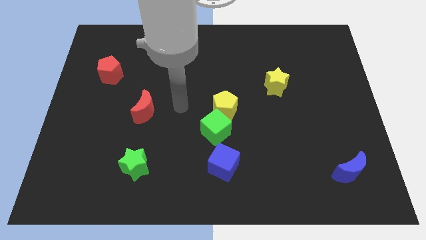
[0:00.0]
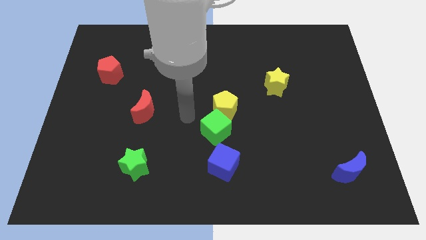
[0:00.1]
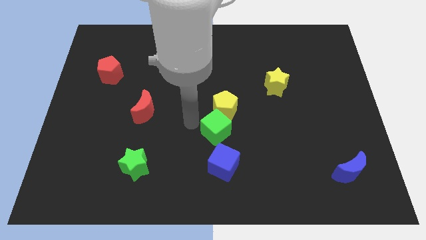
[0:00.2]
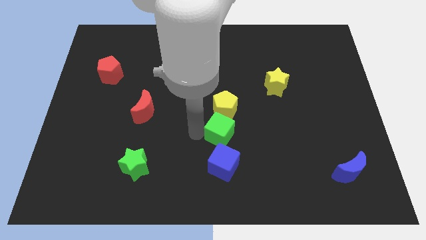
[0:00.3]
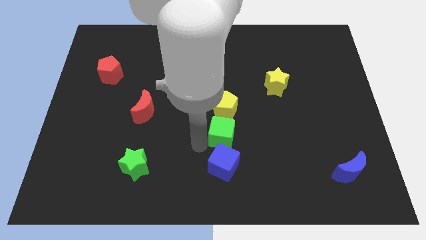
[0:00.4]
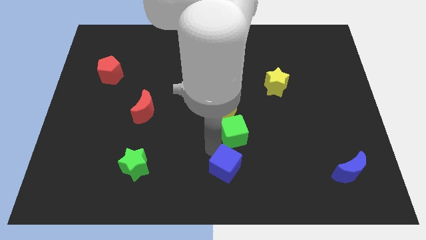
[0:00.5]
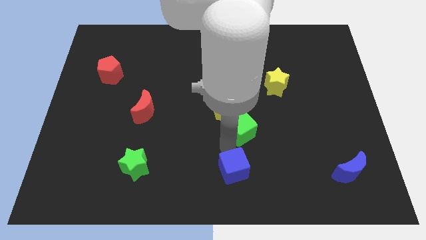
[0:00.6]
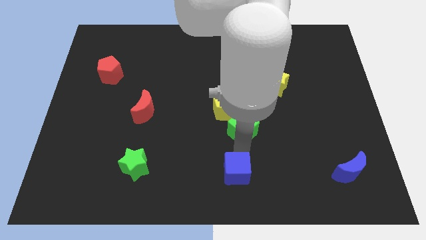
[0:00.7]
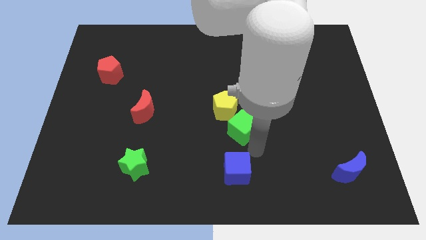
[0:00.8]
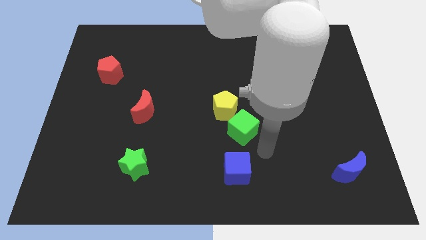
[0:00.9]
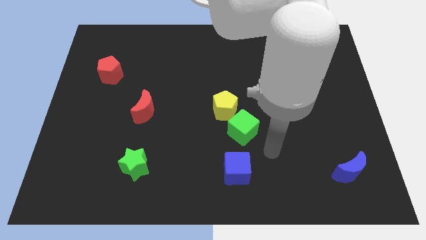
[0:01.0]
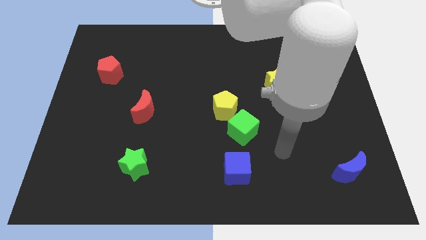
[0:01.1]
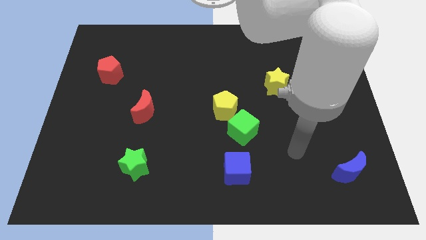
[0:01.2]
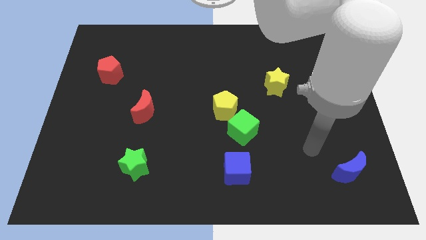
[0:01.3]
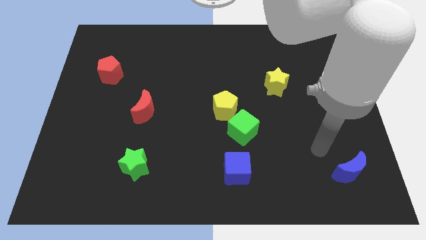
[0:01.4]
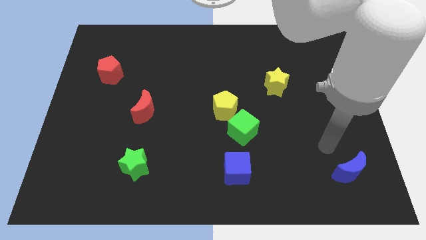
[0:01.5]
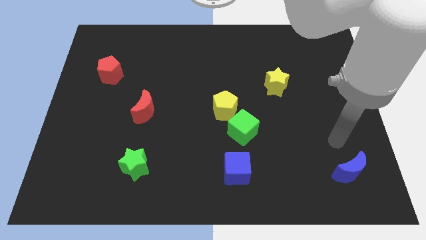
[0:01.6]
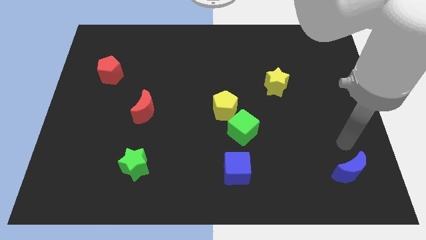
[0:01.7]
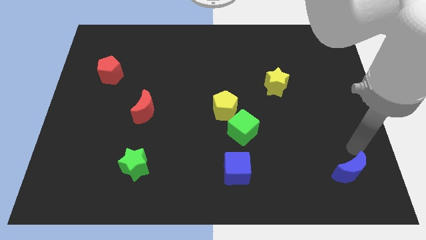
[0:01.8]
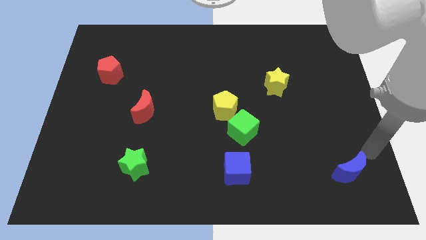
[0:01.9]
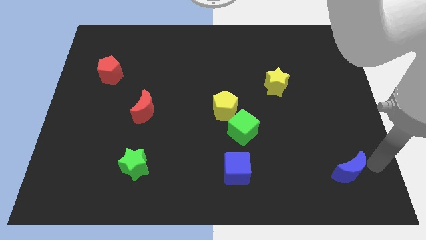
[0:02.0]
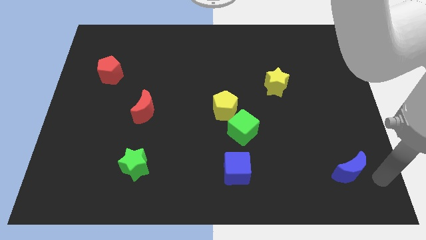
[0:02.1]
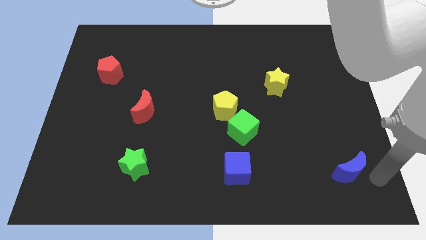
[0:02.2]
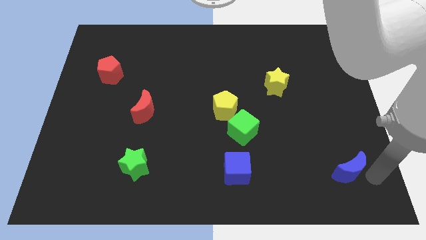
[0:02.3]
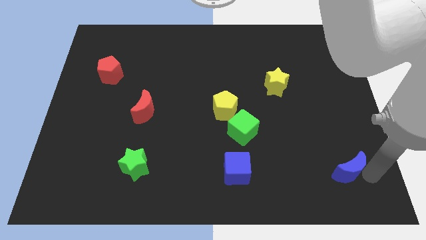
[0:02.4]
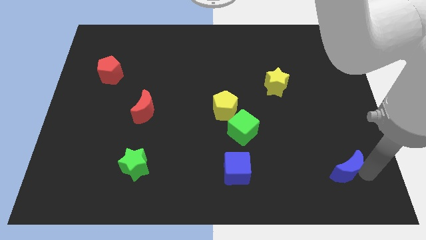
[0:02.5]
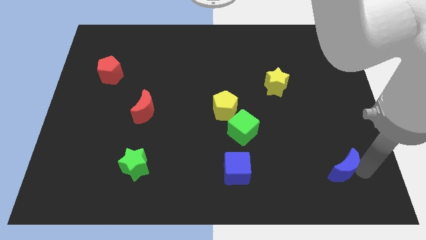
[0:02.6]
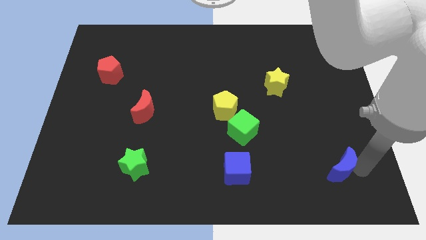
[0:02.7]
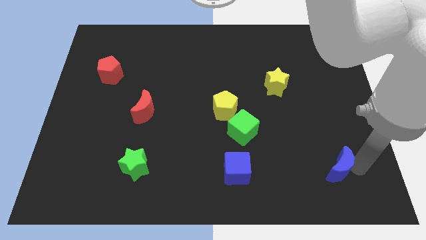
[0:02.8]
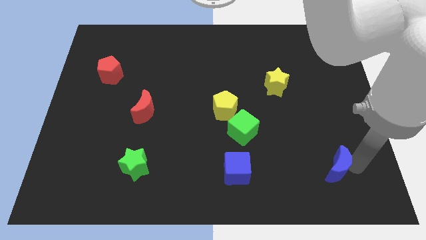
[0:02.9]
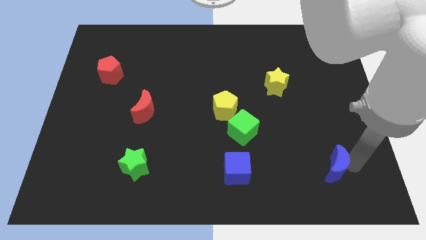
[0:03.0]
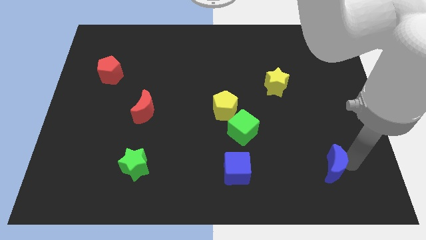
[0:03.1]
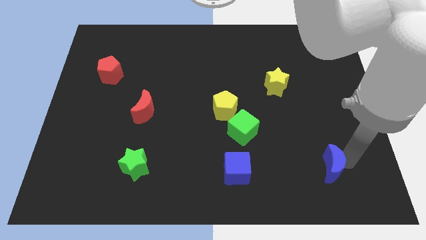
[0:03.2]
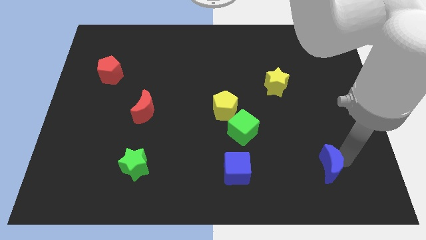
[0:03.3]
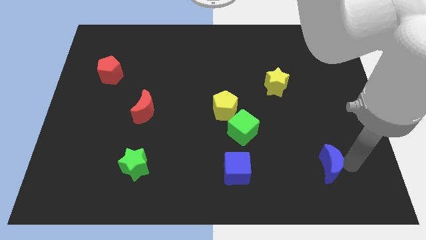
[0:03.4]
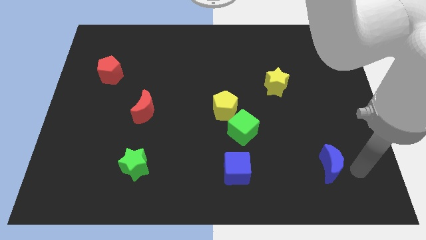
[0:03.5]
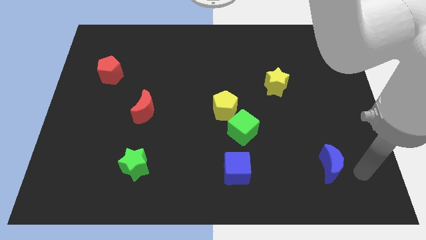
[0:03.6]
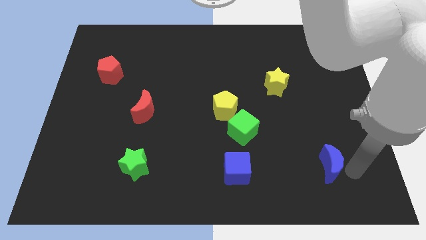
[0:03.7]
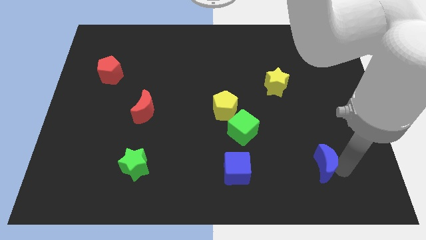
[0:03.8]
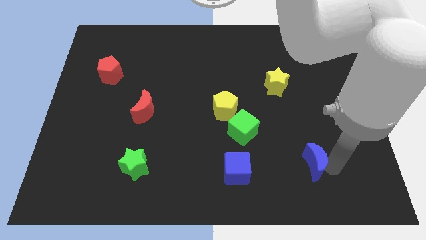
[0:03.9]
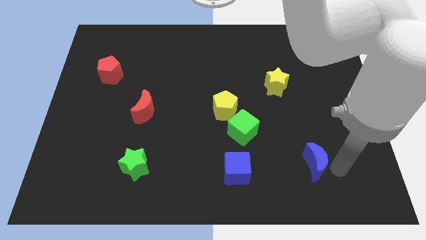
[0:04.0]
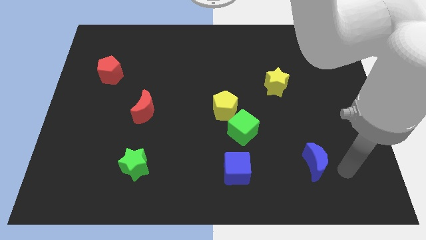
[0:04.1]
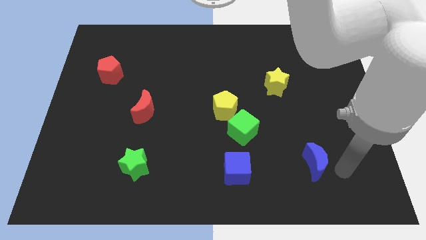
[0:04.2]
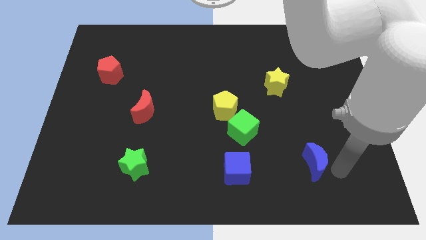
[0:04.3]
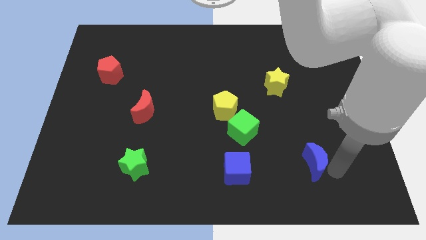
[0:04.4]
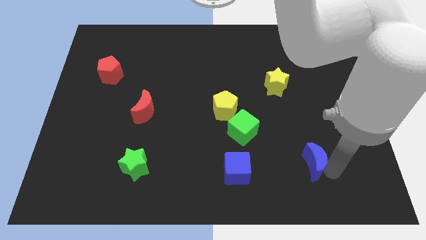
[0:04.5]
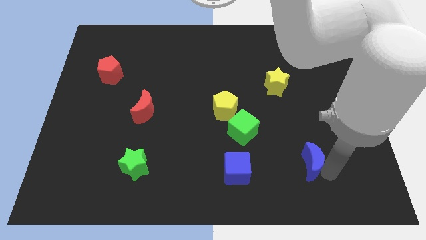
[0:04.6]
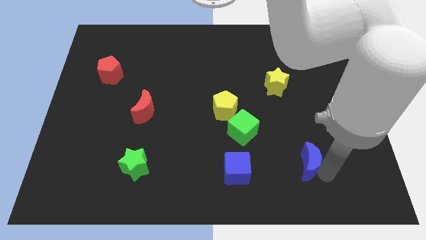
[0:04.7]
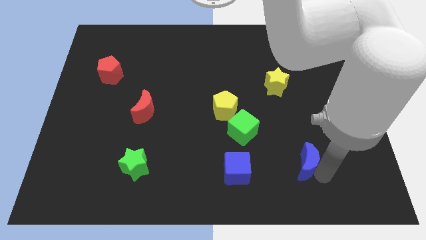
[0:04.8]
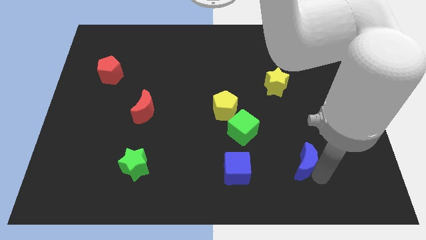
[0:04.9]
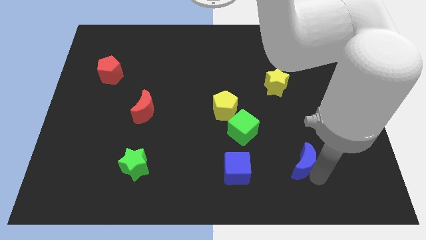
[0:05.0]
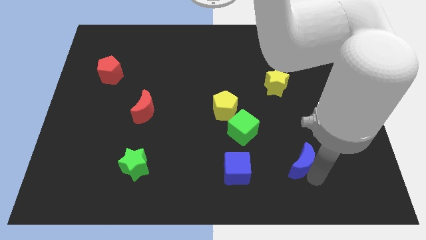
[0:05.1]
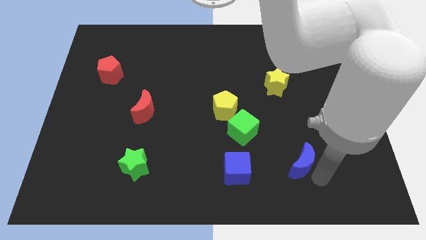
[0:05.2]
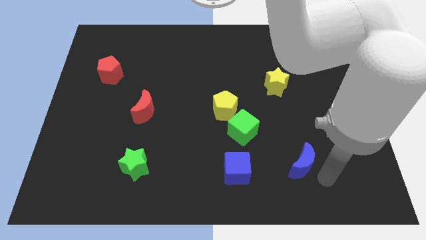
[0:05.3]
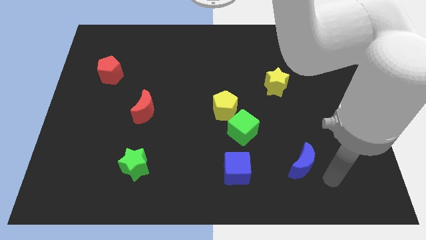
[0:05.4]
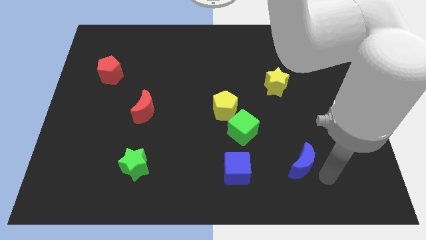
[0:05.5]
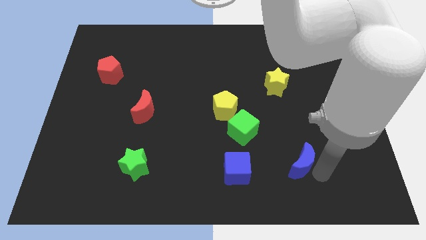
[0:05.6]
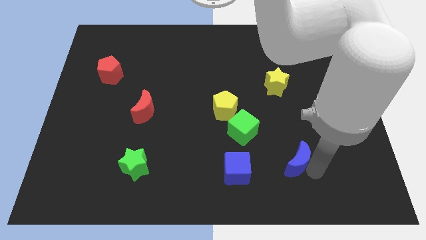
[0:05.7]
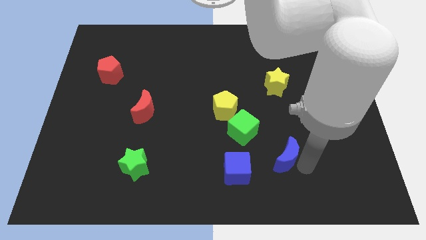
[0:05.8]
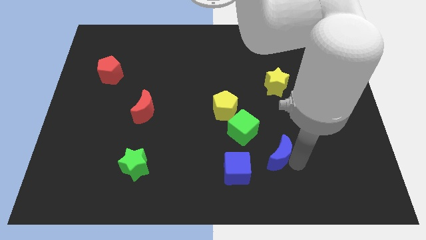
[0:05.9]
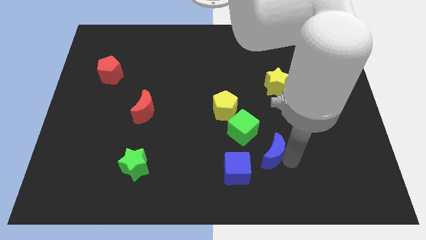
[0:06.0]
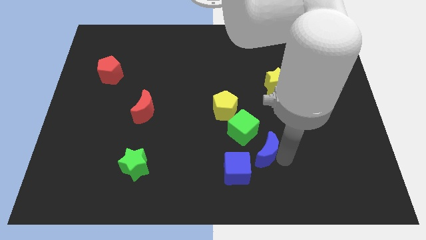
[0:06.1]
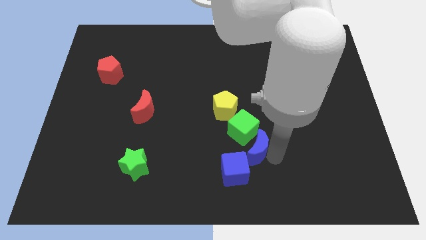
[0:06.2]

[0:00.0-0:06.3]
move the blue moon towards the green cube

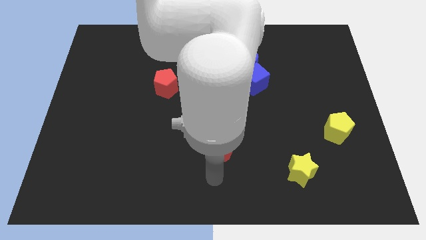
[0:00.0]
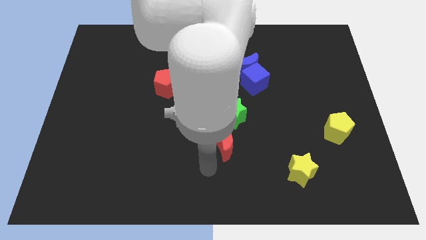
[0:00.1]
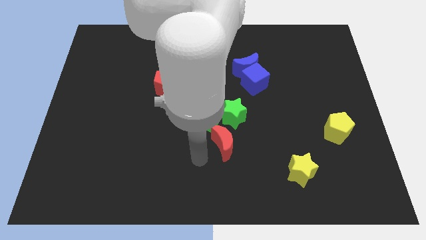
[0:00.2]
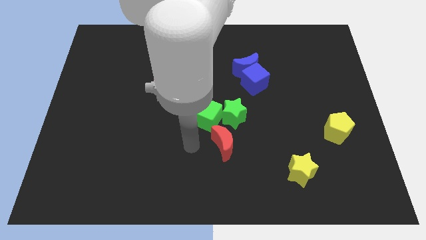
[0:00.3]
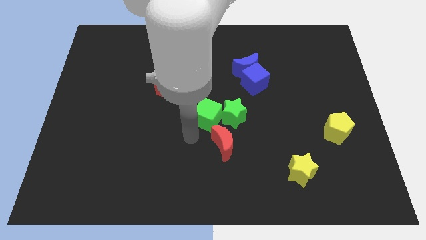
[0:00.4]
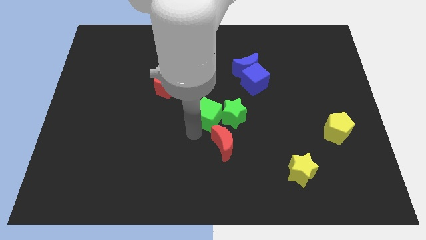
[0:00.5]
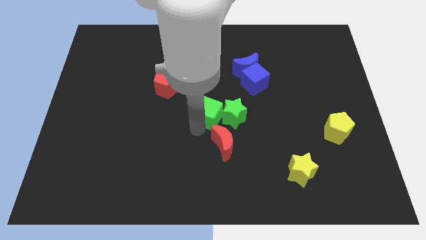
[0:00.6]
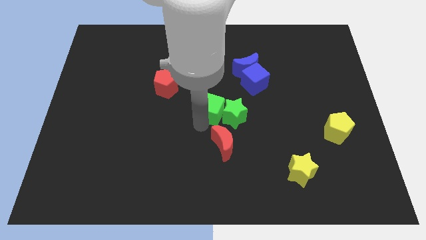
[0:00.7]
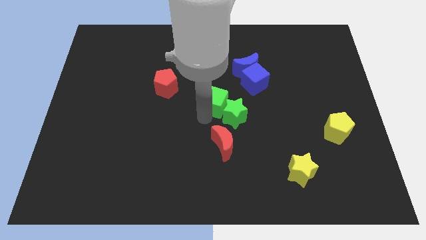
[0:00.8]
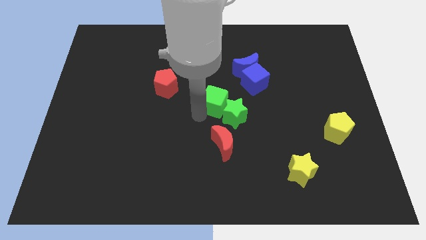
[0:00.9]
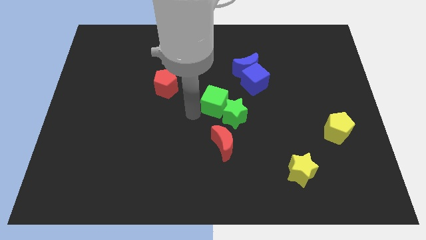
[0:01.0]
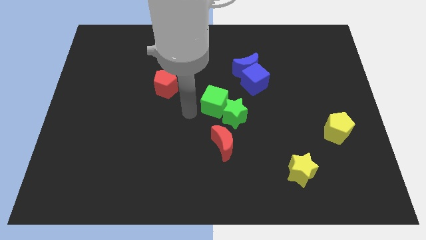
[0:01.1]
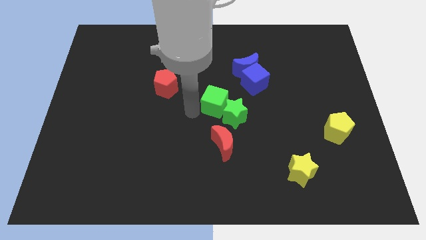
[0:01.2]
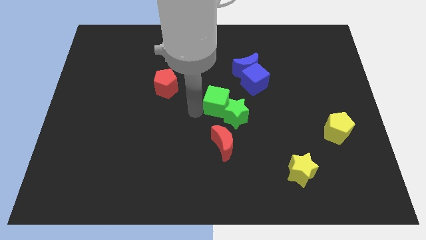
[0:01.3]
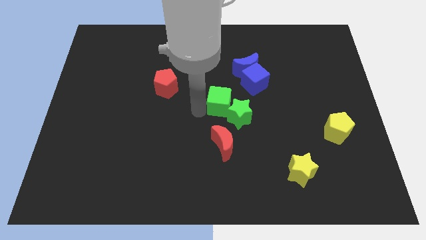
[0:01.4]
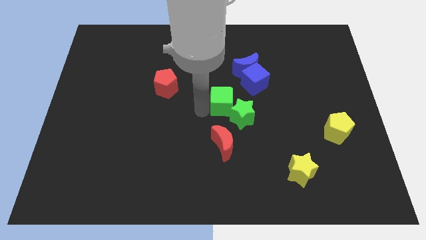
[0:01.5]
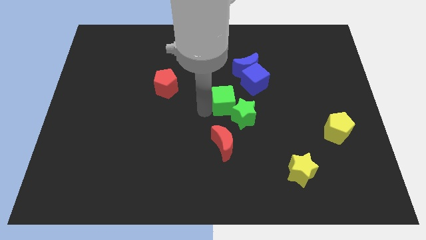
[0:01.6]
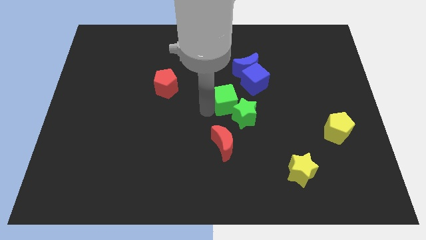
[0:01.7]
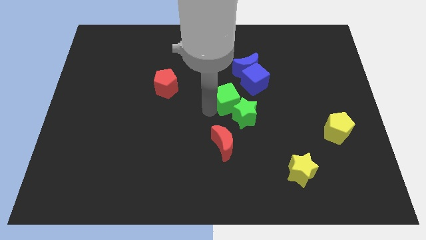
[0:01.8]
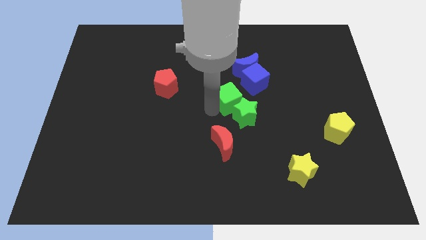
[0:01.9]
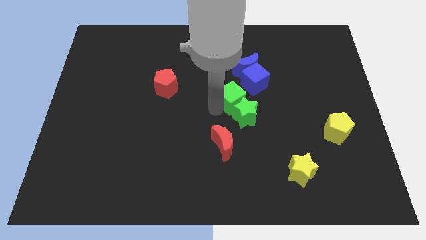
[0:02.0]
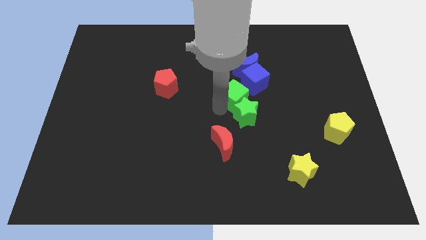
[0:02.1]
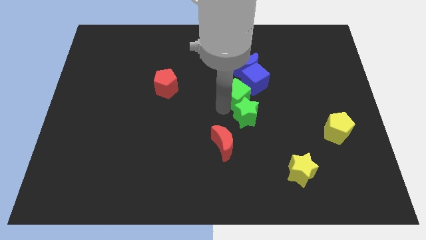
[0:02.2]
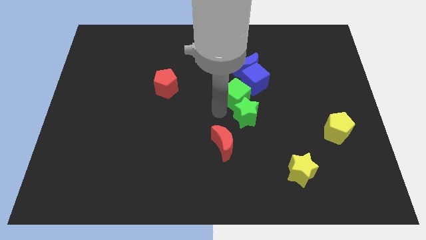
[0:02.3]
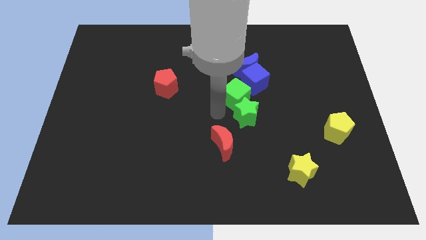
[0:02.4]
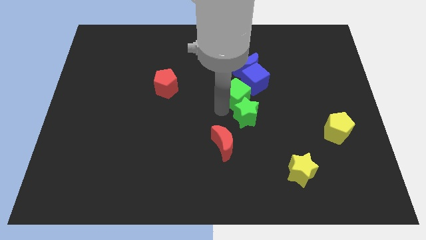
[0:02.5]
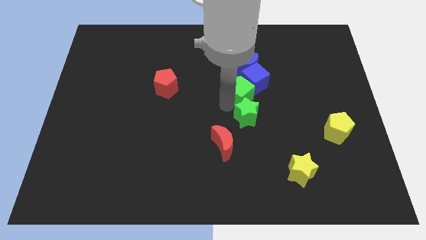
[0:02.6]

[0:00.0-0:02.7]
put the green cube next to the blue cube
